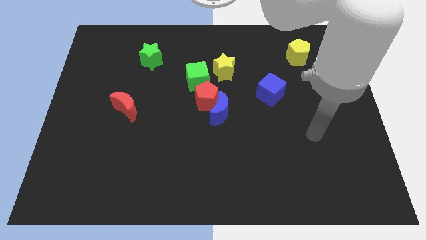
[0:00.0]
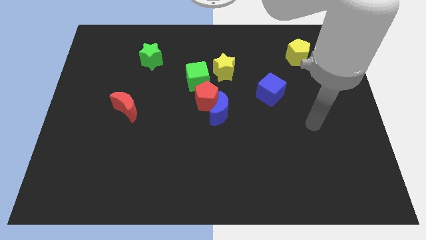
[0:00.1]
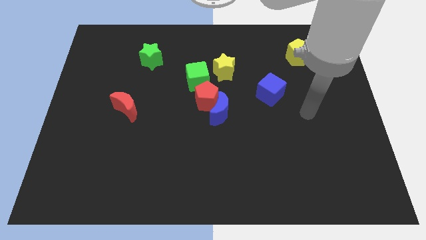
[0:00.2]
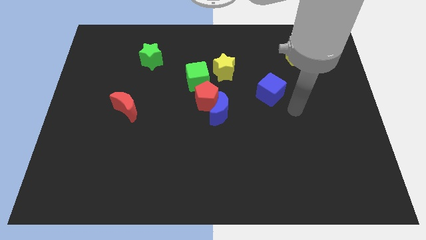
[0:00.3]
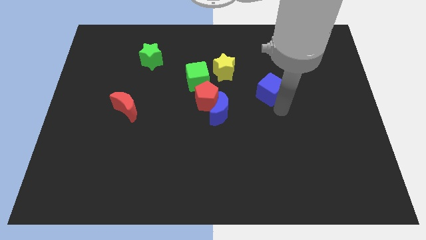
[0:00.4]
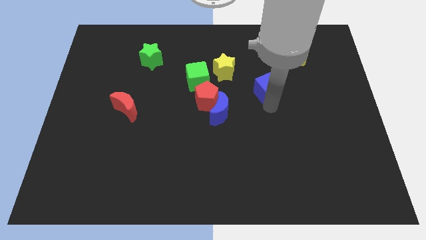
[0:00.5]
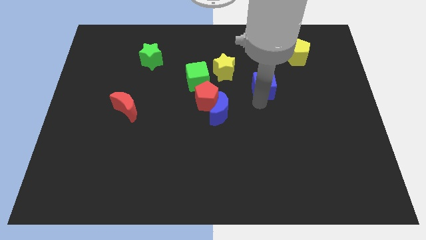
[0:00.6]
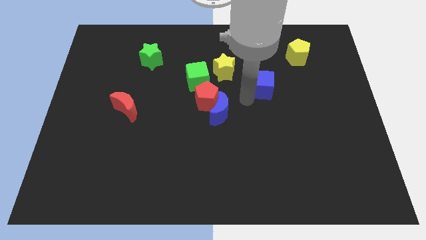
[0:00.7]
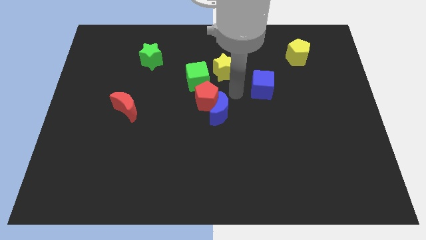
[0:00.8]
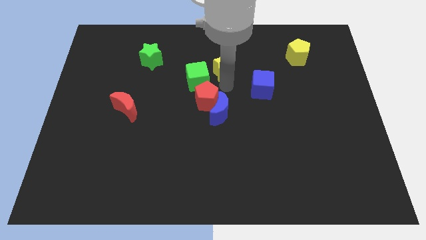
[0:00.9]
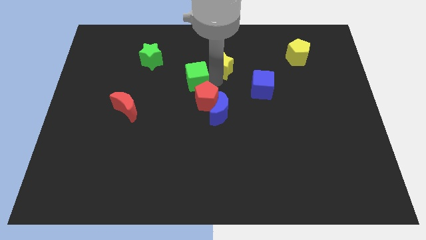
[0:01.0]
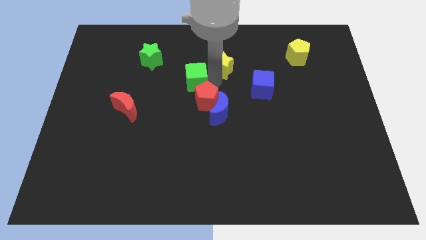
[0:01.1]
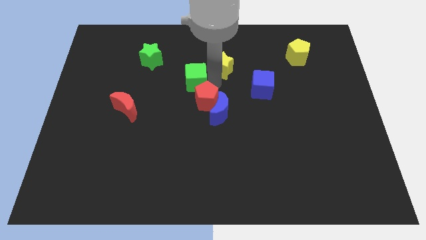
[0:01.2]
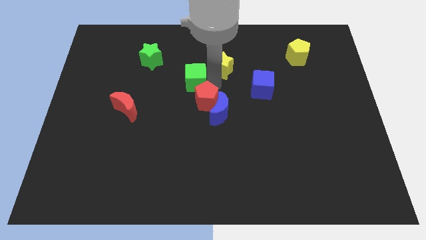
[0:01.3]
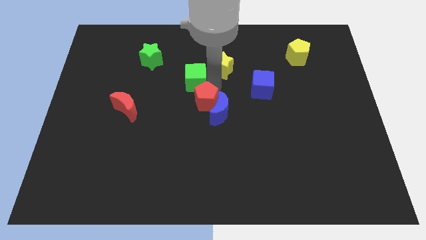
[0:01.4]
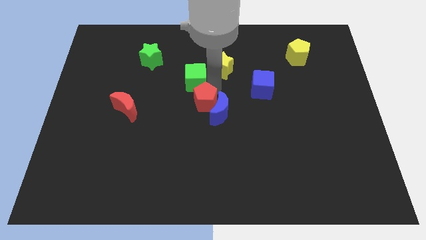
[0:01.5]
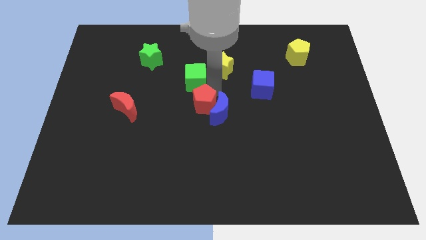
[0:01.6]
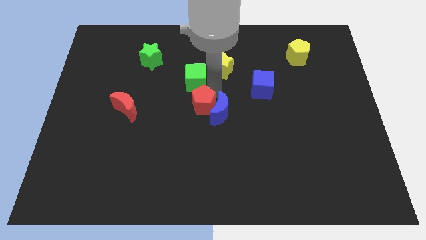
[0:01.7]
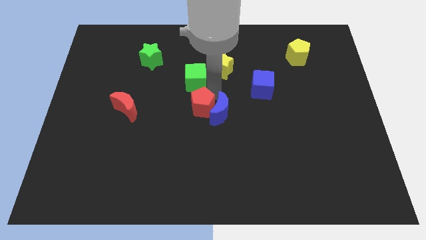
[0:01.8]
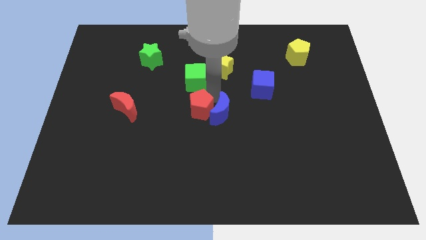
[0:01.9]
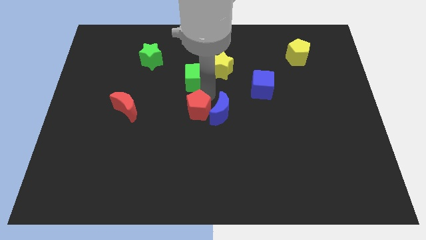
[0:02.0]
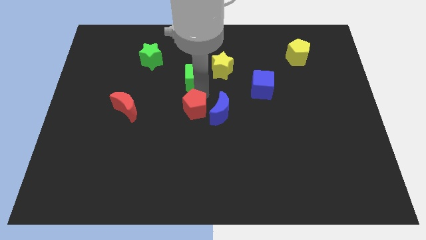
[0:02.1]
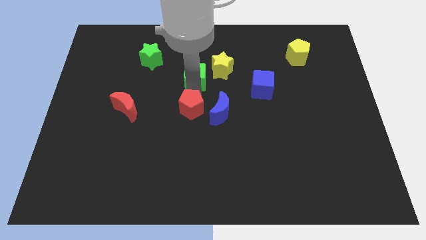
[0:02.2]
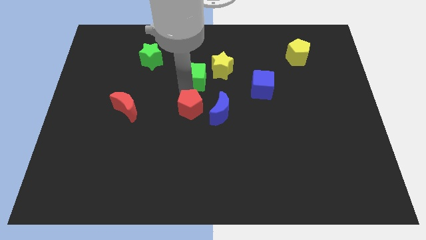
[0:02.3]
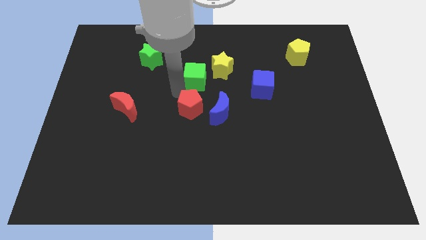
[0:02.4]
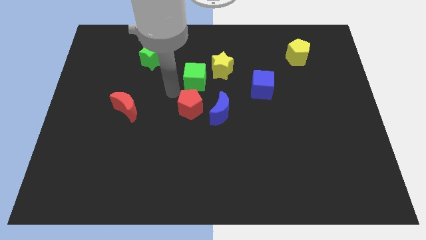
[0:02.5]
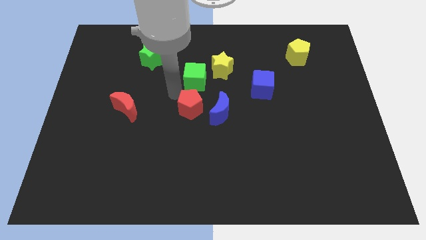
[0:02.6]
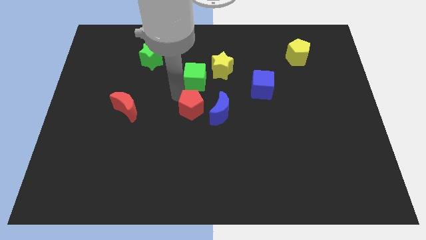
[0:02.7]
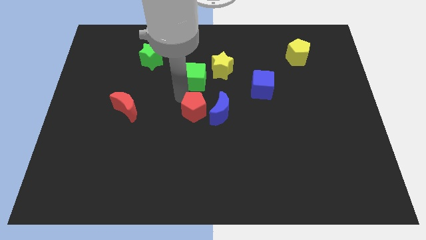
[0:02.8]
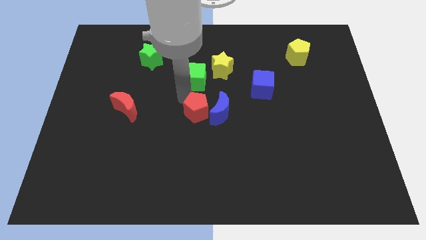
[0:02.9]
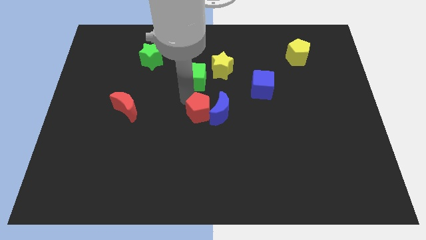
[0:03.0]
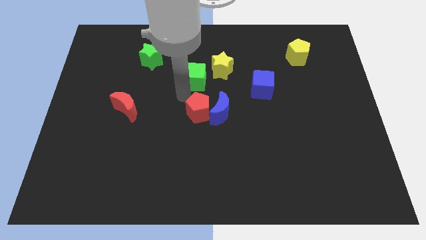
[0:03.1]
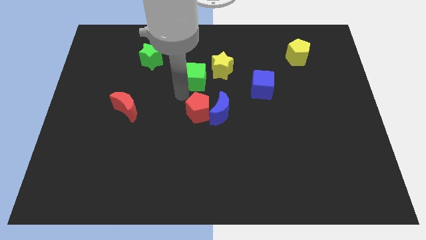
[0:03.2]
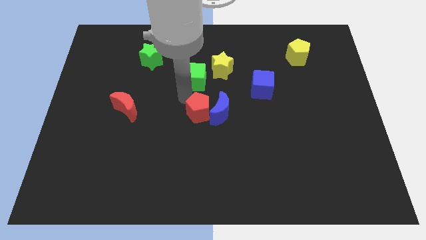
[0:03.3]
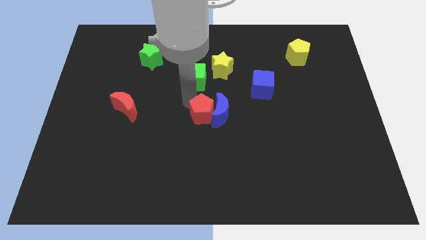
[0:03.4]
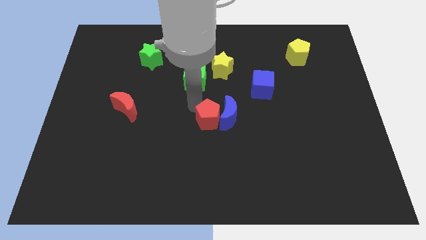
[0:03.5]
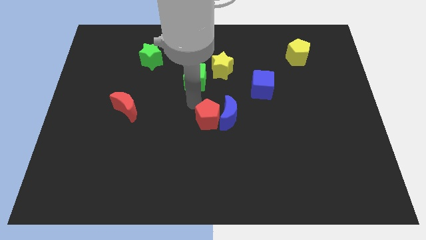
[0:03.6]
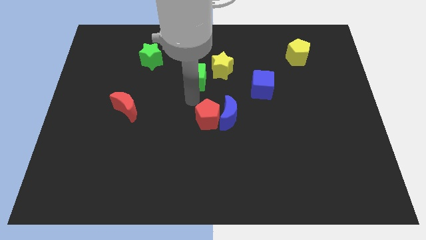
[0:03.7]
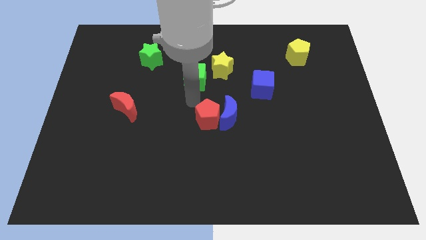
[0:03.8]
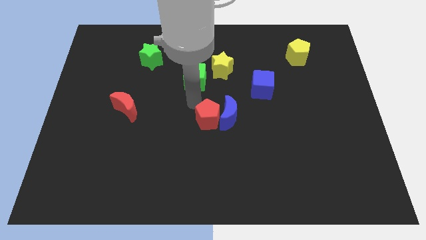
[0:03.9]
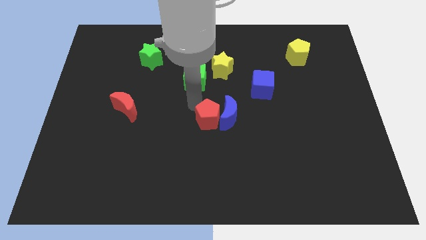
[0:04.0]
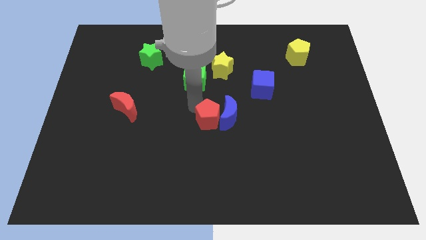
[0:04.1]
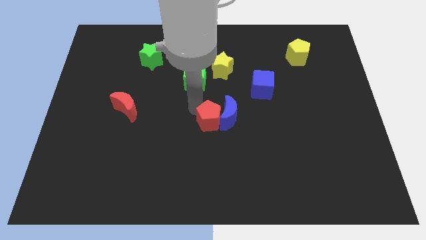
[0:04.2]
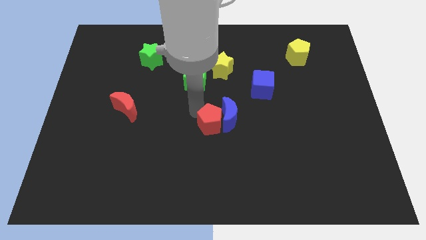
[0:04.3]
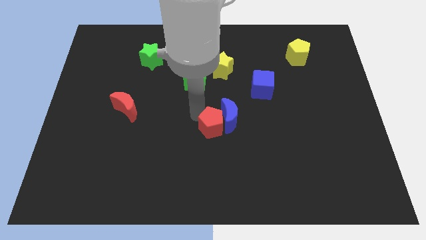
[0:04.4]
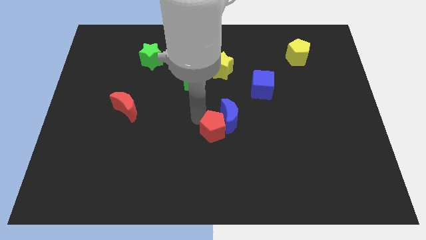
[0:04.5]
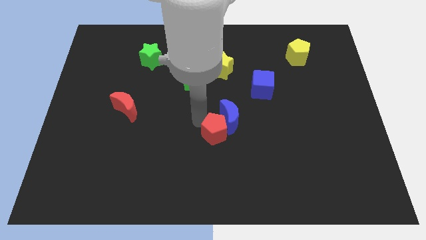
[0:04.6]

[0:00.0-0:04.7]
slide the red pentagon down and to the right diagonally a little

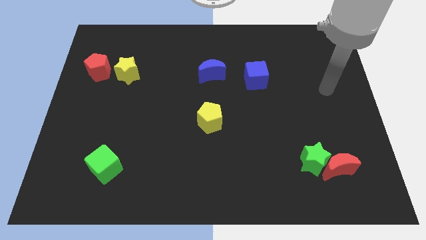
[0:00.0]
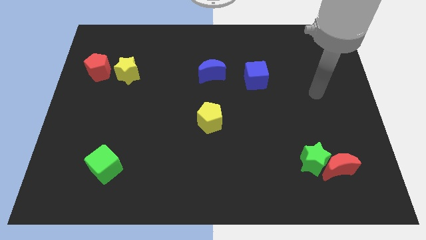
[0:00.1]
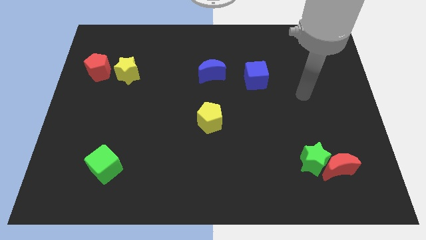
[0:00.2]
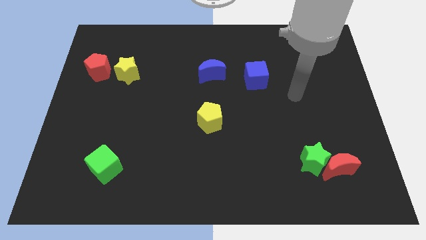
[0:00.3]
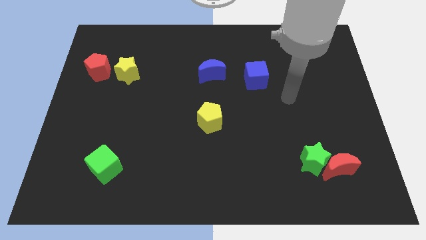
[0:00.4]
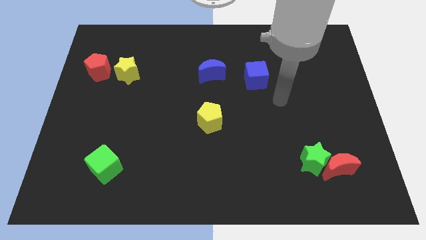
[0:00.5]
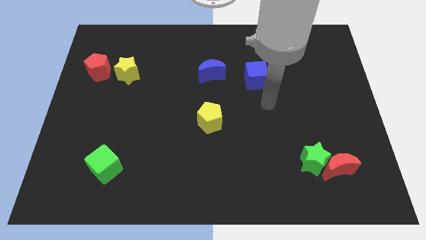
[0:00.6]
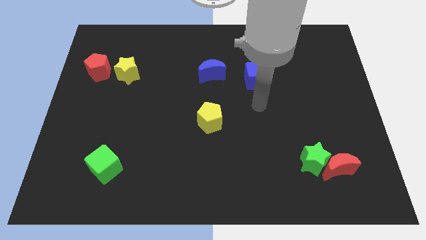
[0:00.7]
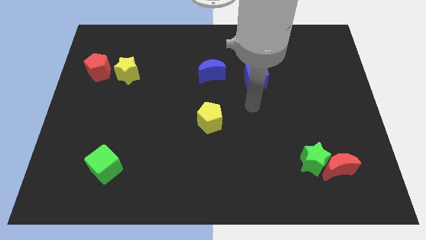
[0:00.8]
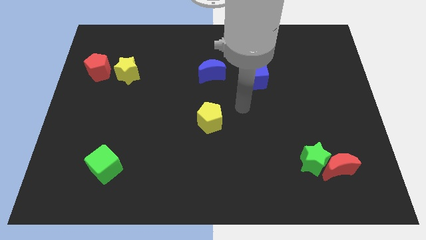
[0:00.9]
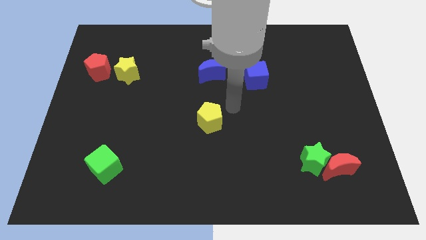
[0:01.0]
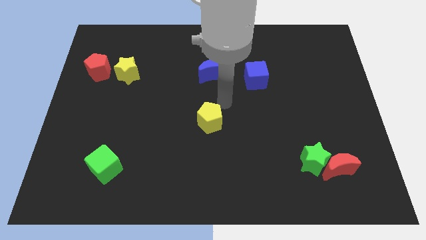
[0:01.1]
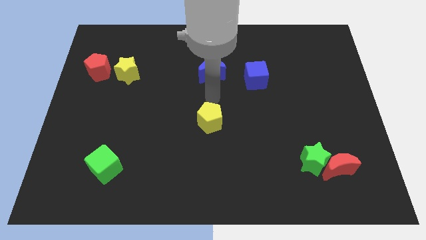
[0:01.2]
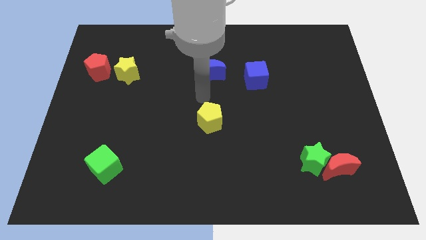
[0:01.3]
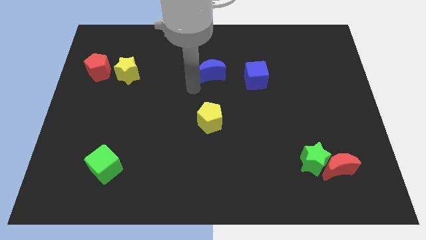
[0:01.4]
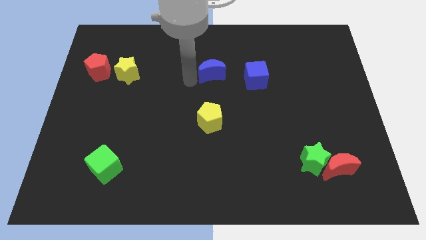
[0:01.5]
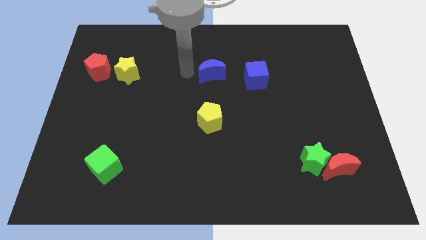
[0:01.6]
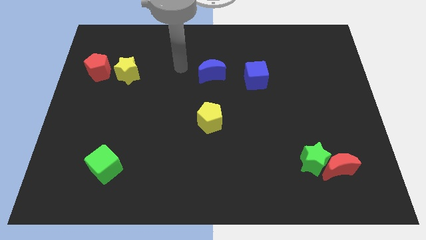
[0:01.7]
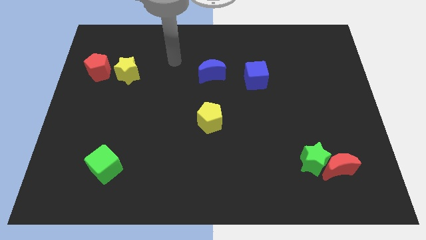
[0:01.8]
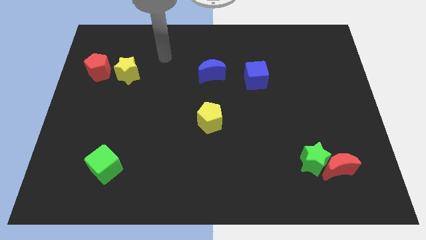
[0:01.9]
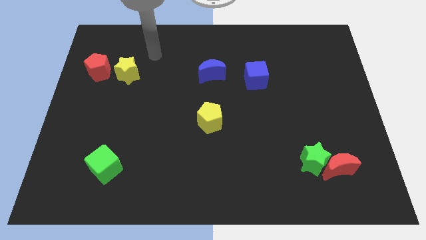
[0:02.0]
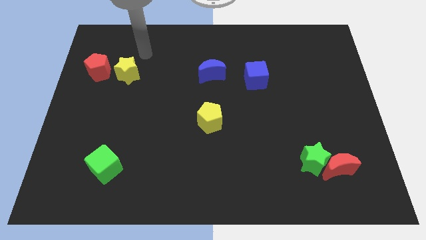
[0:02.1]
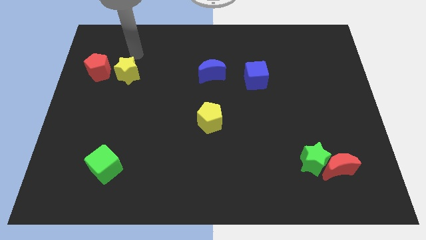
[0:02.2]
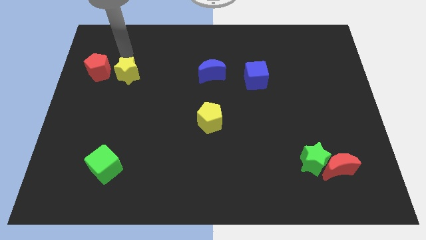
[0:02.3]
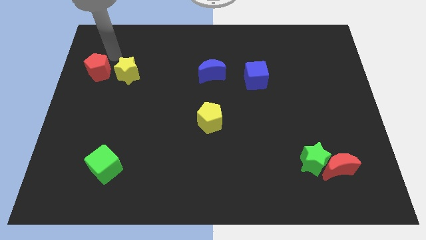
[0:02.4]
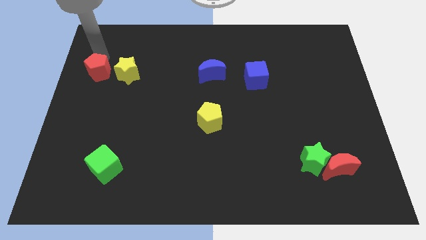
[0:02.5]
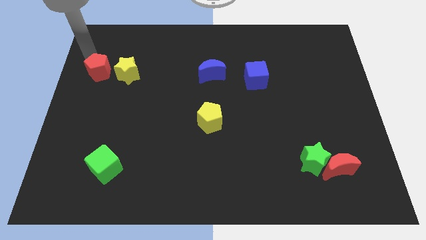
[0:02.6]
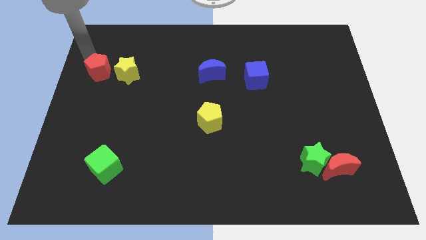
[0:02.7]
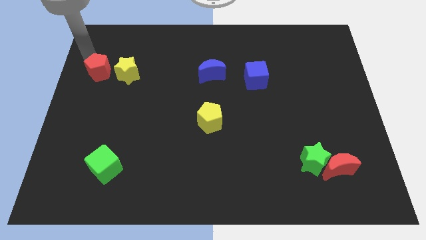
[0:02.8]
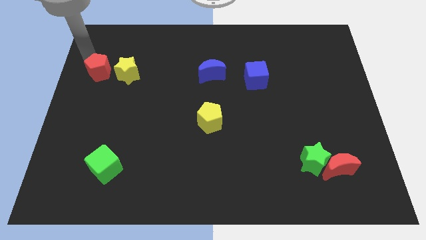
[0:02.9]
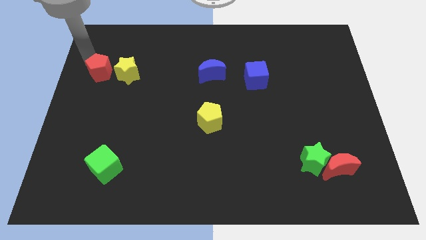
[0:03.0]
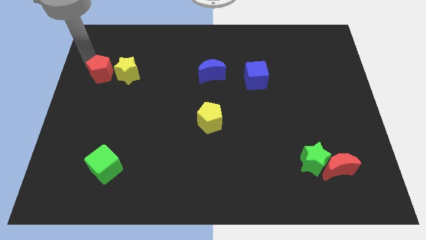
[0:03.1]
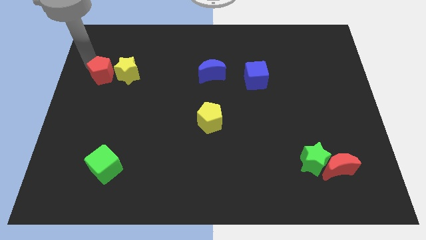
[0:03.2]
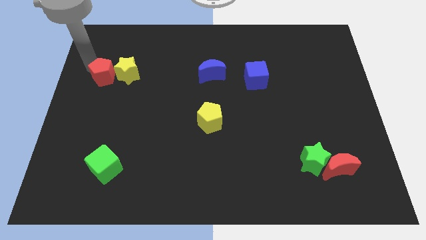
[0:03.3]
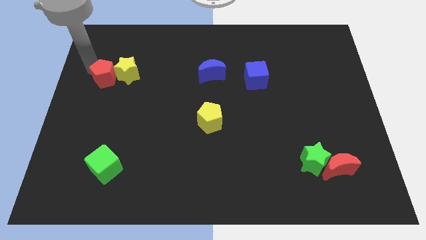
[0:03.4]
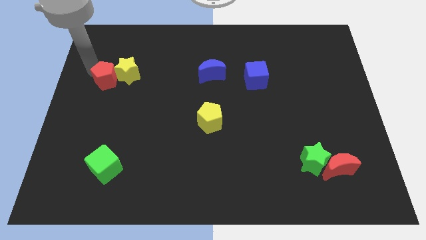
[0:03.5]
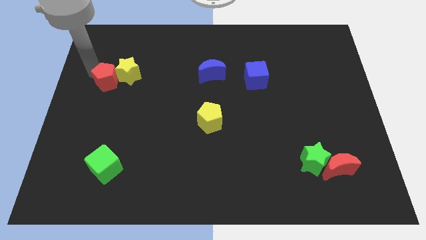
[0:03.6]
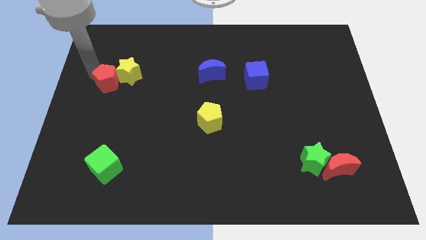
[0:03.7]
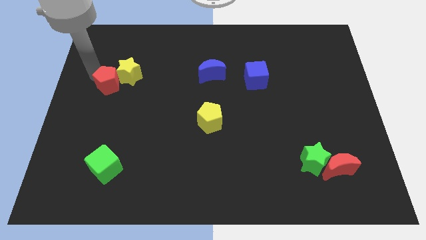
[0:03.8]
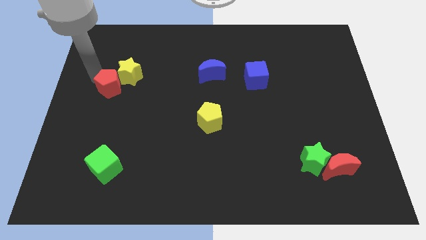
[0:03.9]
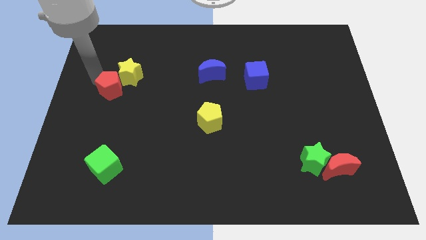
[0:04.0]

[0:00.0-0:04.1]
slightly push the red pentagon downwards and to the right
